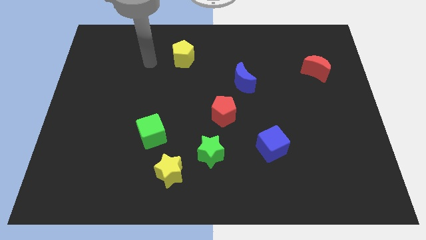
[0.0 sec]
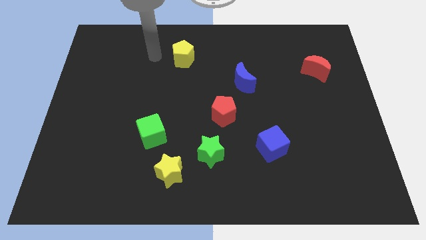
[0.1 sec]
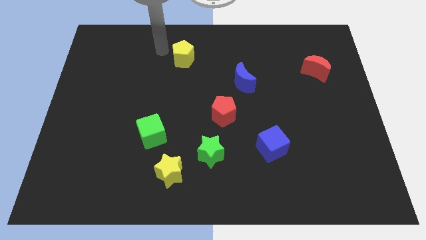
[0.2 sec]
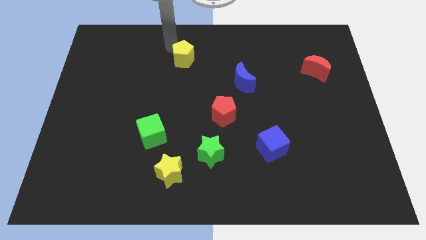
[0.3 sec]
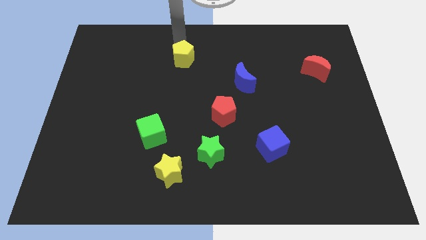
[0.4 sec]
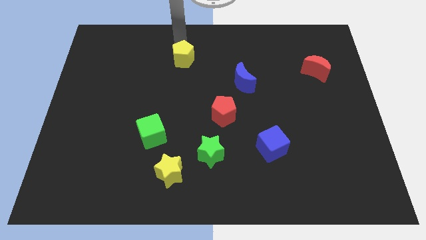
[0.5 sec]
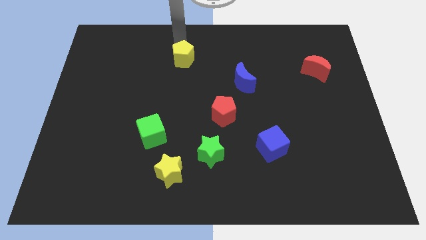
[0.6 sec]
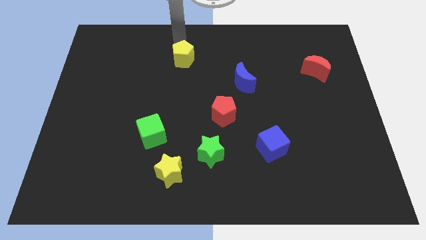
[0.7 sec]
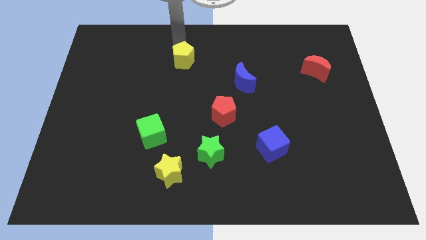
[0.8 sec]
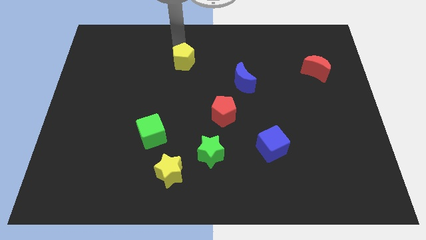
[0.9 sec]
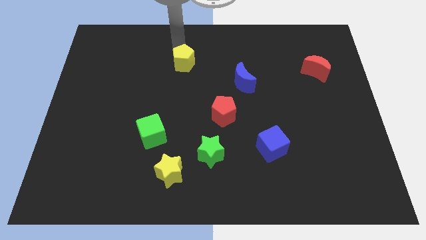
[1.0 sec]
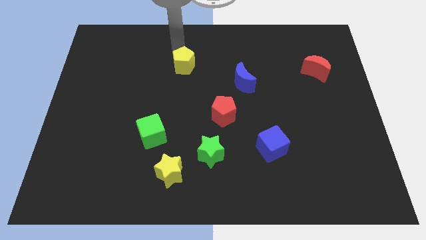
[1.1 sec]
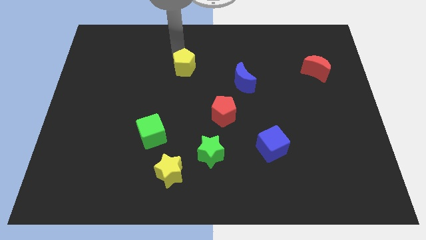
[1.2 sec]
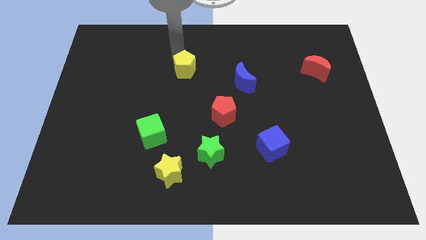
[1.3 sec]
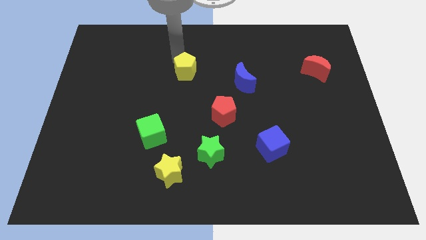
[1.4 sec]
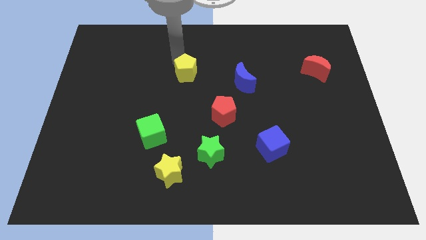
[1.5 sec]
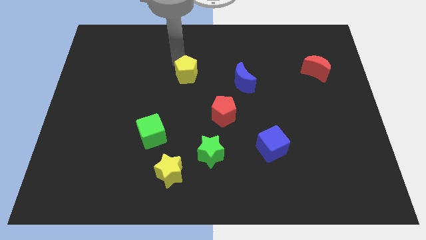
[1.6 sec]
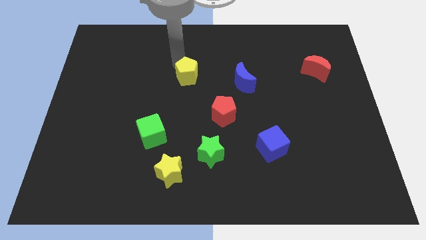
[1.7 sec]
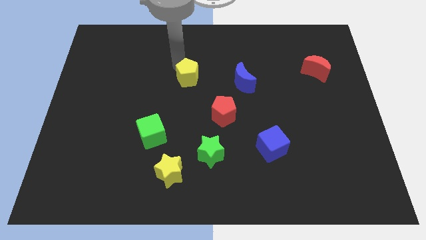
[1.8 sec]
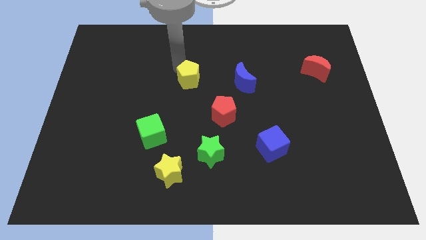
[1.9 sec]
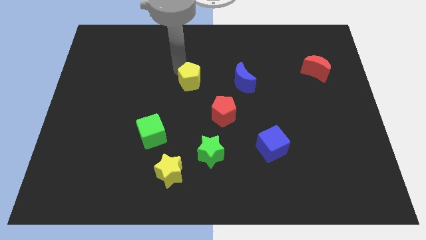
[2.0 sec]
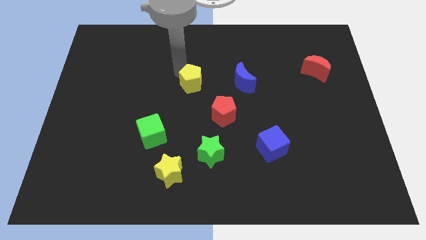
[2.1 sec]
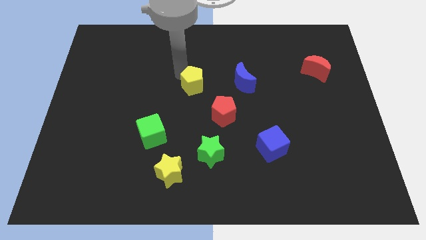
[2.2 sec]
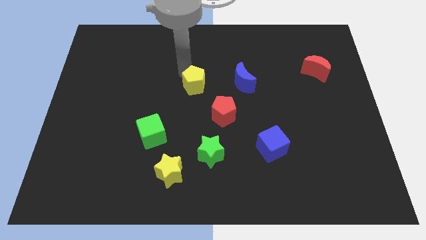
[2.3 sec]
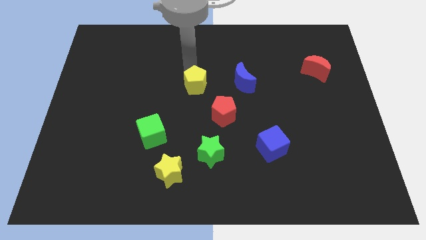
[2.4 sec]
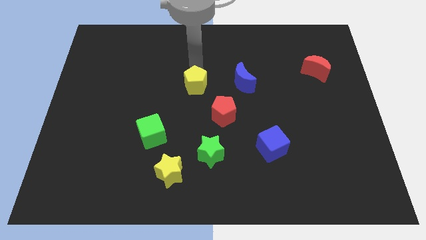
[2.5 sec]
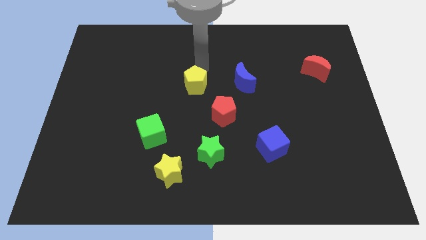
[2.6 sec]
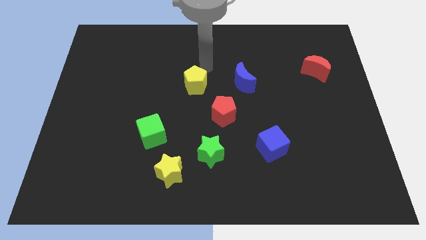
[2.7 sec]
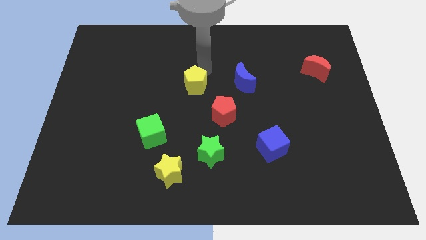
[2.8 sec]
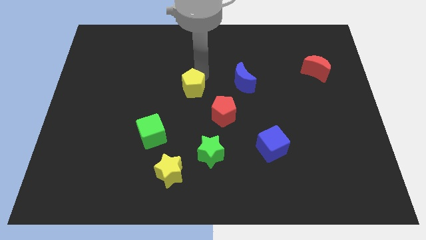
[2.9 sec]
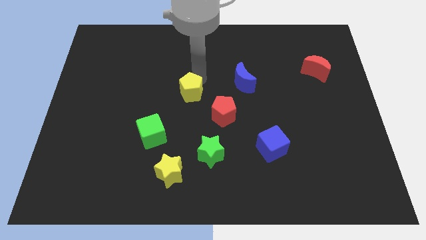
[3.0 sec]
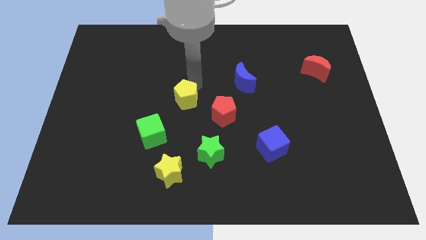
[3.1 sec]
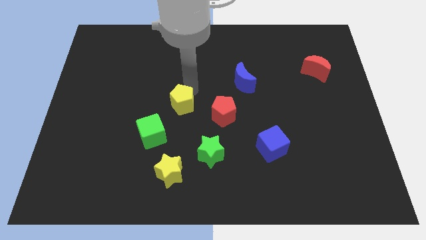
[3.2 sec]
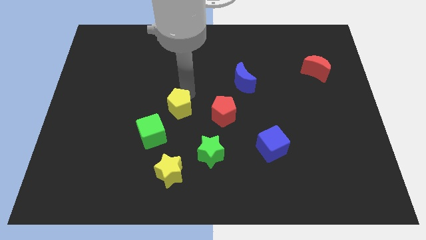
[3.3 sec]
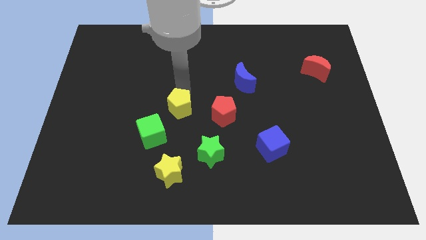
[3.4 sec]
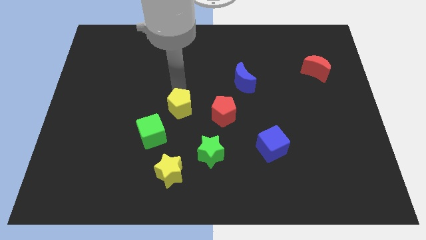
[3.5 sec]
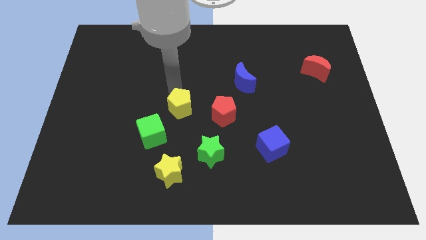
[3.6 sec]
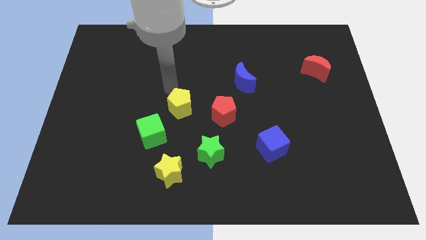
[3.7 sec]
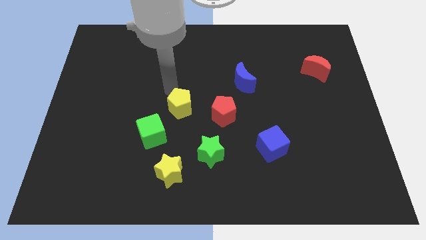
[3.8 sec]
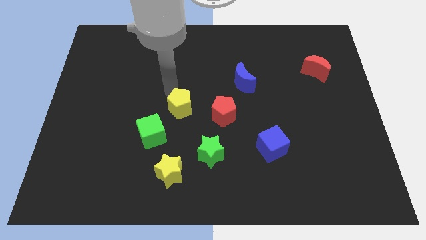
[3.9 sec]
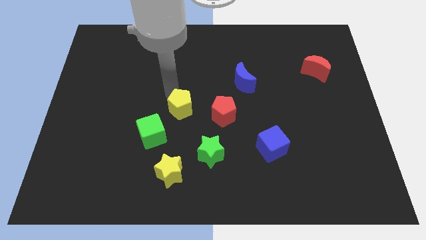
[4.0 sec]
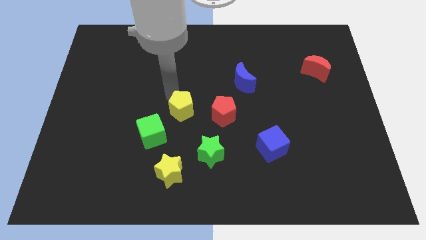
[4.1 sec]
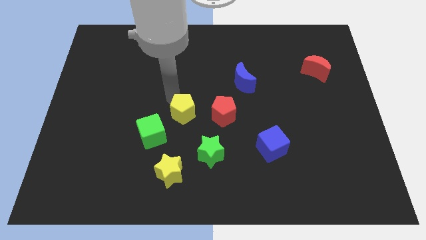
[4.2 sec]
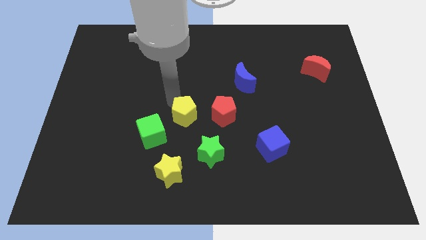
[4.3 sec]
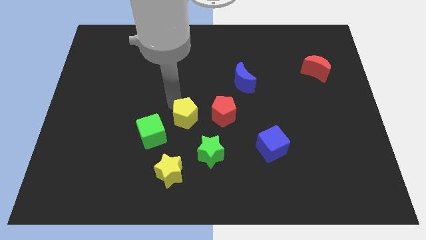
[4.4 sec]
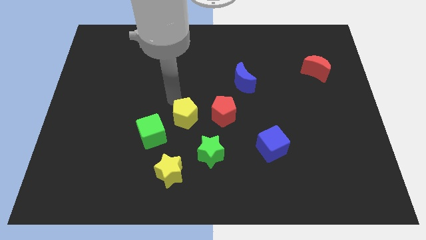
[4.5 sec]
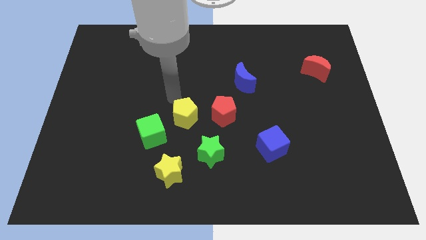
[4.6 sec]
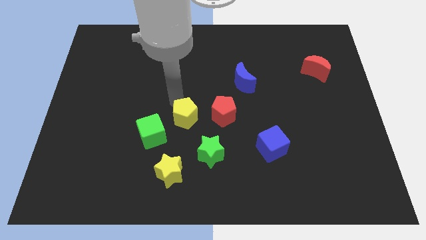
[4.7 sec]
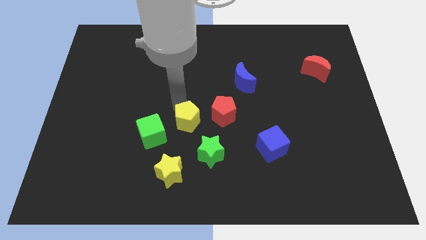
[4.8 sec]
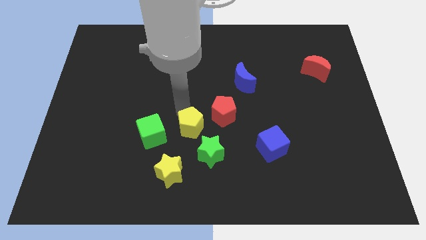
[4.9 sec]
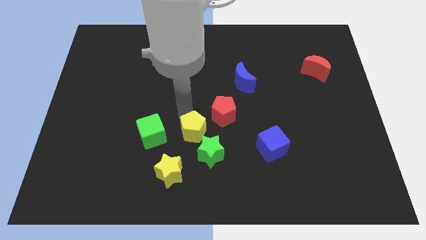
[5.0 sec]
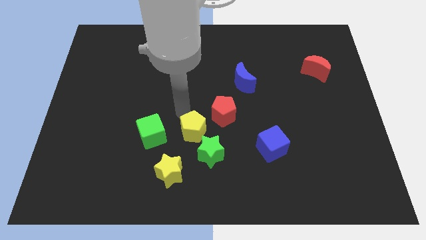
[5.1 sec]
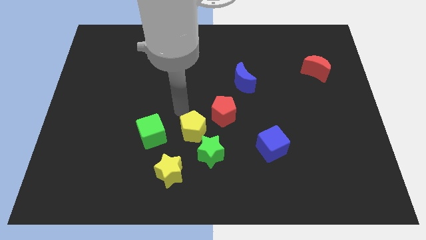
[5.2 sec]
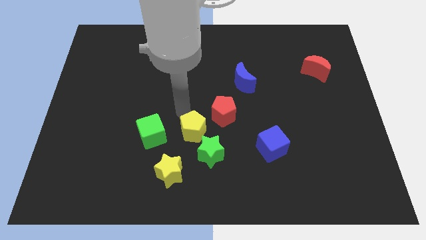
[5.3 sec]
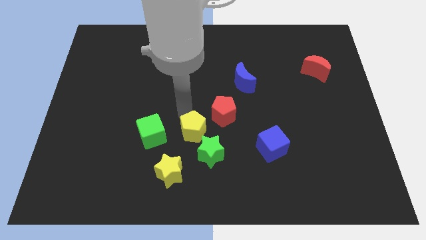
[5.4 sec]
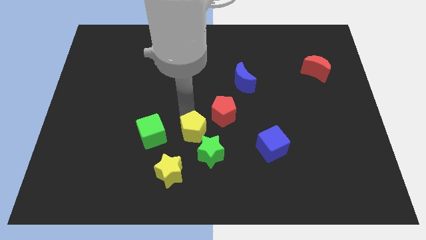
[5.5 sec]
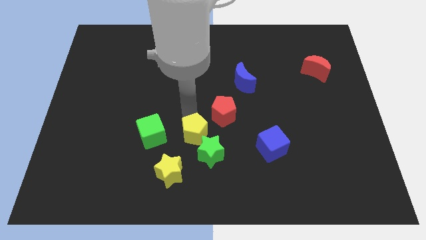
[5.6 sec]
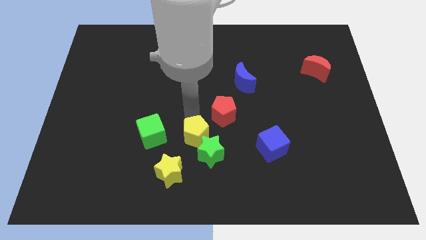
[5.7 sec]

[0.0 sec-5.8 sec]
push the yellow pentagon to the green star

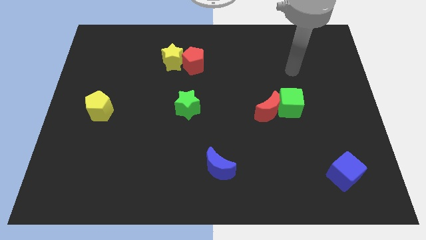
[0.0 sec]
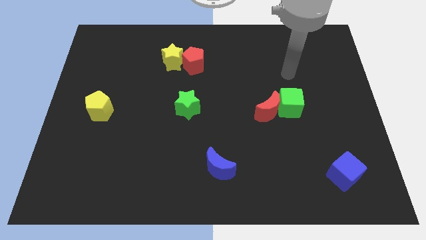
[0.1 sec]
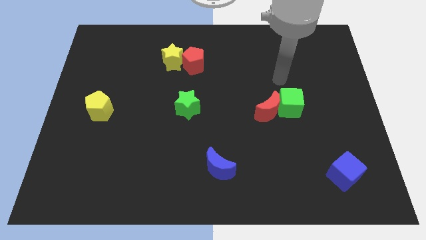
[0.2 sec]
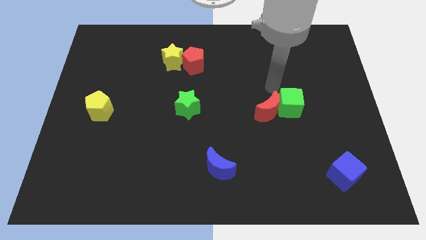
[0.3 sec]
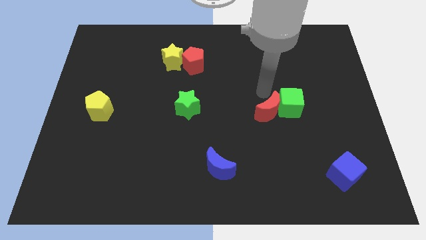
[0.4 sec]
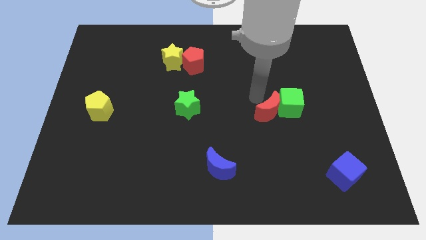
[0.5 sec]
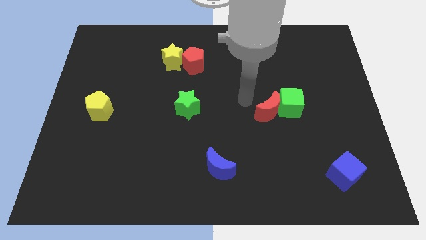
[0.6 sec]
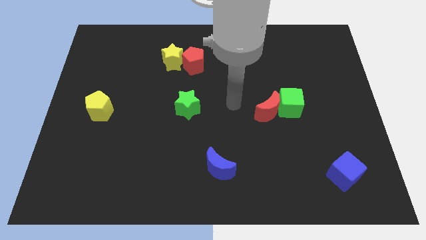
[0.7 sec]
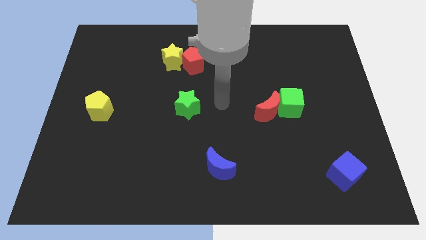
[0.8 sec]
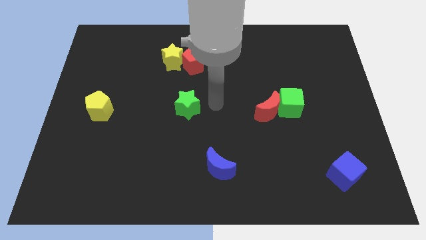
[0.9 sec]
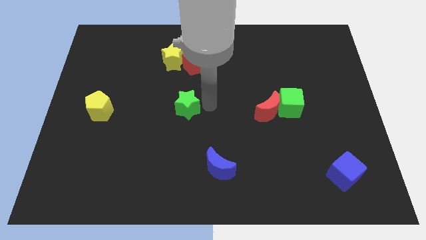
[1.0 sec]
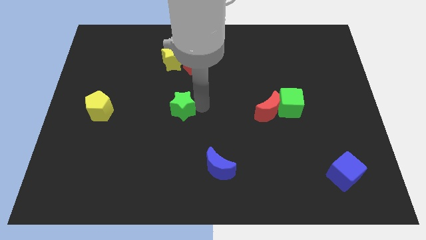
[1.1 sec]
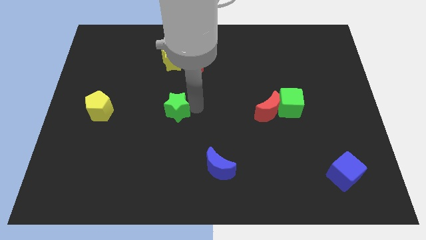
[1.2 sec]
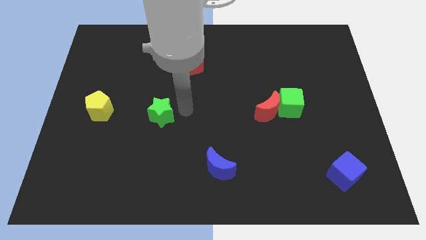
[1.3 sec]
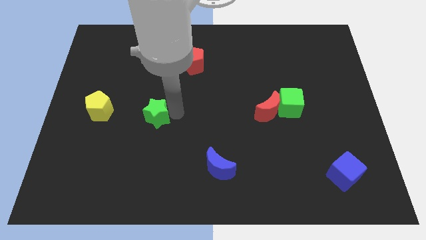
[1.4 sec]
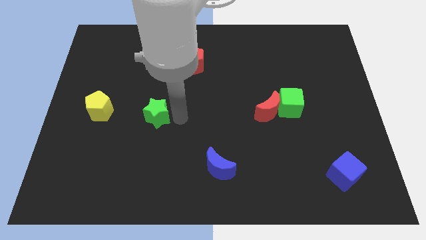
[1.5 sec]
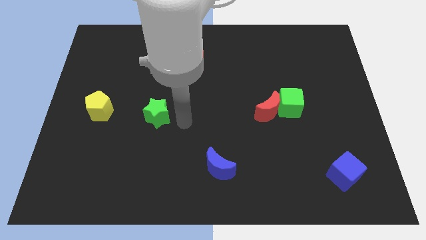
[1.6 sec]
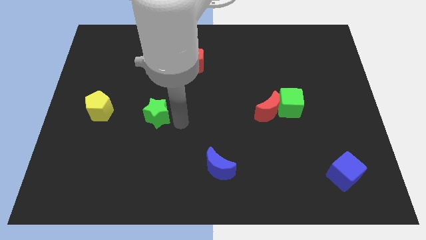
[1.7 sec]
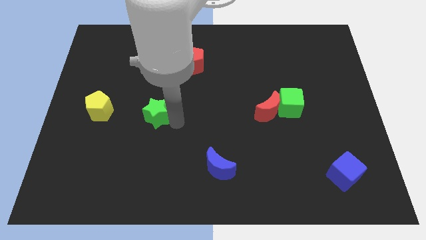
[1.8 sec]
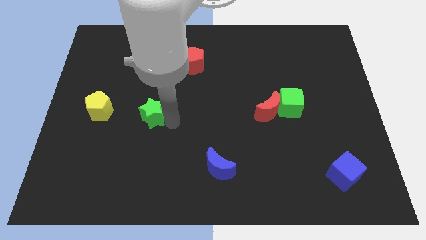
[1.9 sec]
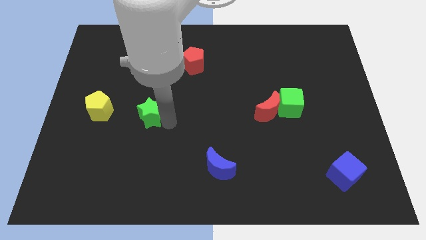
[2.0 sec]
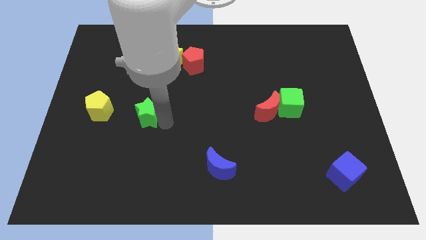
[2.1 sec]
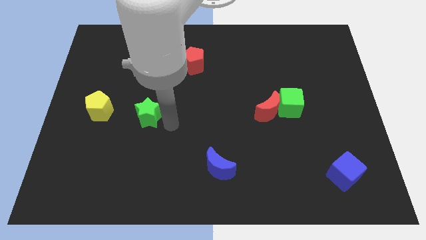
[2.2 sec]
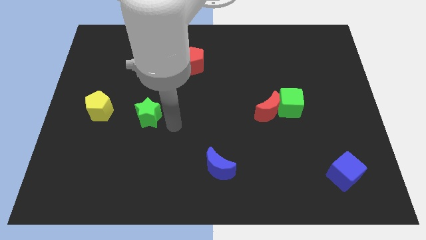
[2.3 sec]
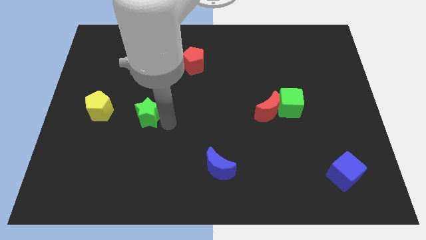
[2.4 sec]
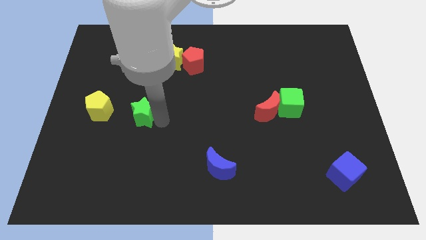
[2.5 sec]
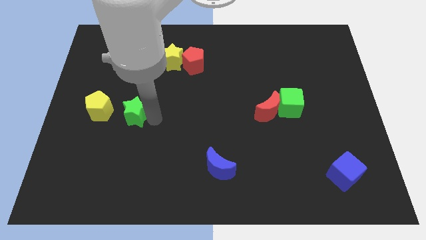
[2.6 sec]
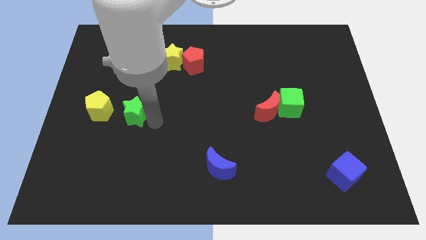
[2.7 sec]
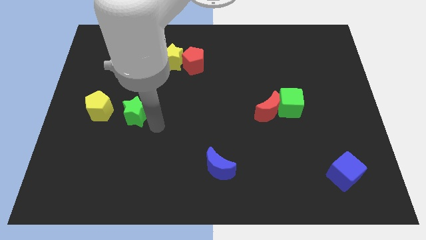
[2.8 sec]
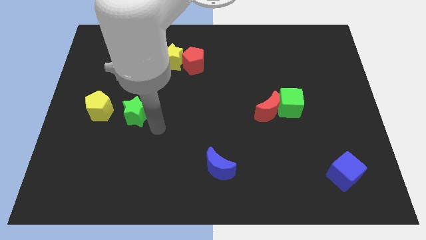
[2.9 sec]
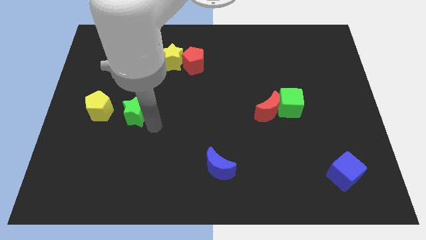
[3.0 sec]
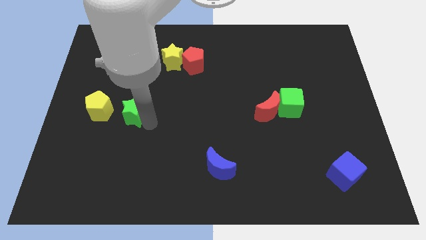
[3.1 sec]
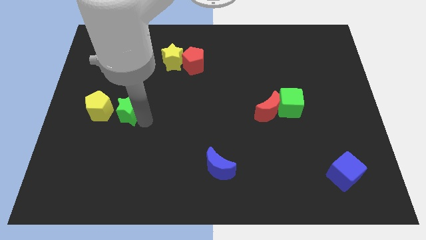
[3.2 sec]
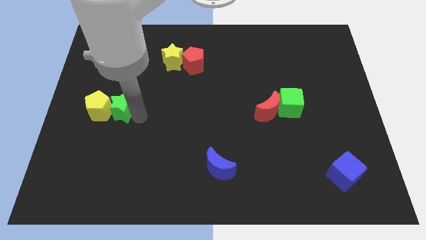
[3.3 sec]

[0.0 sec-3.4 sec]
push the green star next to the yellow pentagon
